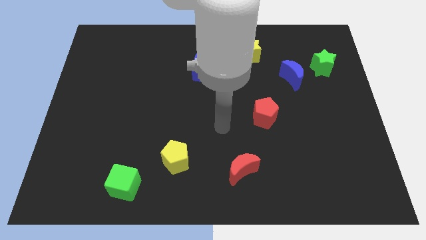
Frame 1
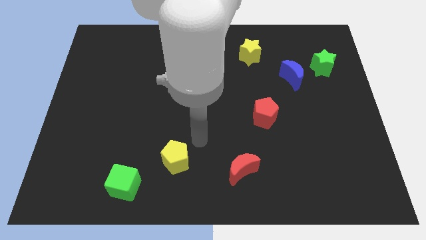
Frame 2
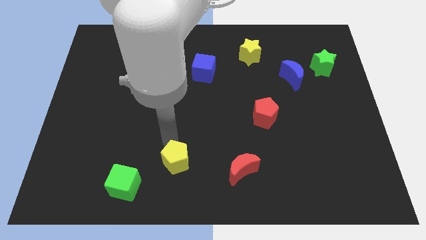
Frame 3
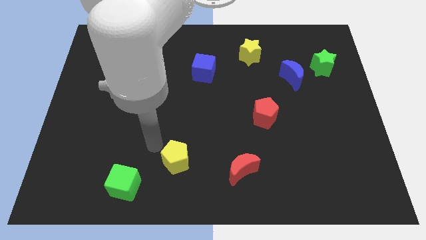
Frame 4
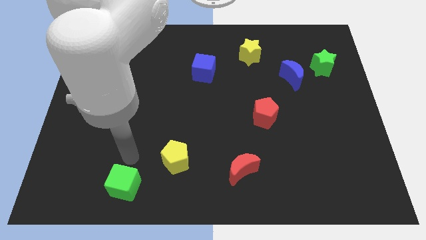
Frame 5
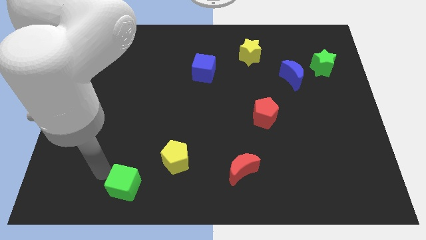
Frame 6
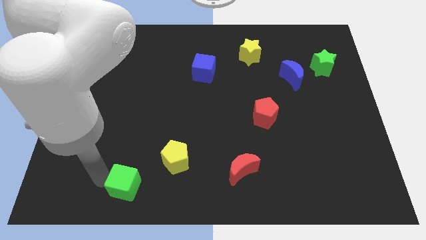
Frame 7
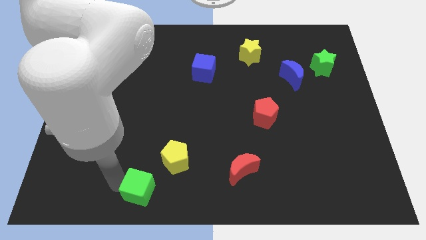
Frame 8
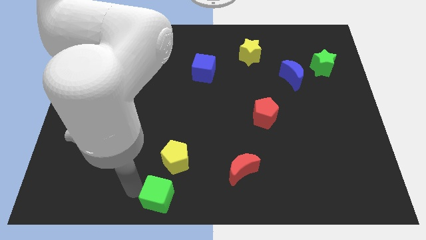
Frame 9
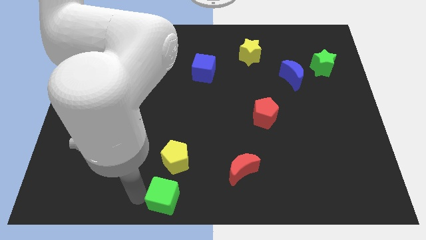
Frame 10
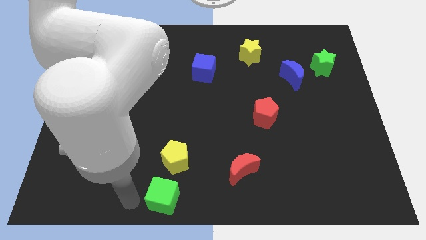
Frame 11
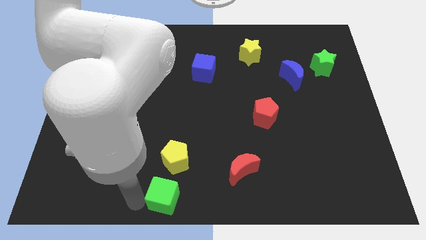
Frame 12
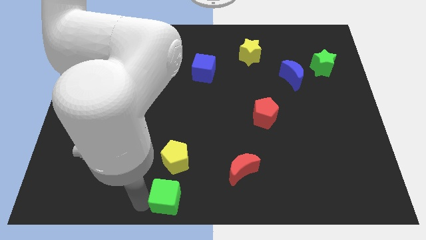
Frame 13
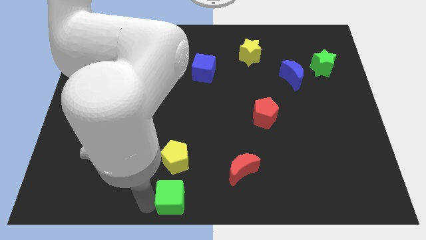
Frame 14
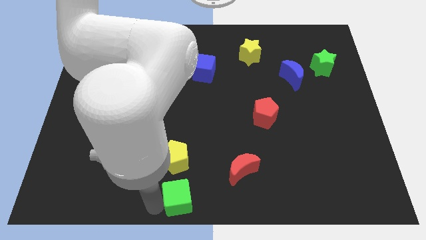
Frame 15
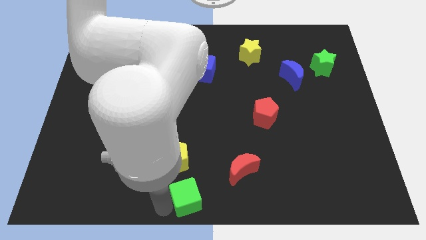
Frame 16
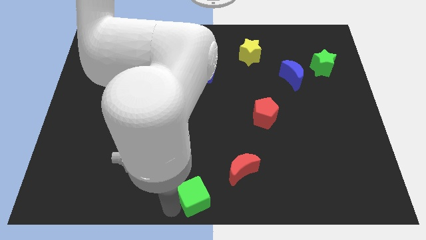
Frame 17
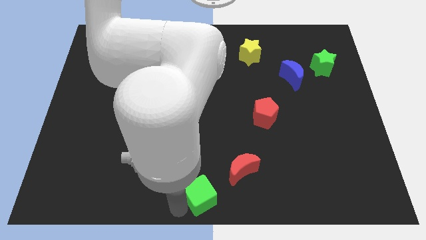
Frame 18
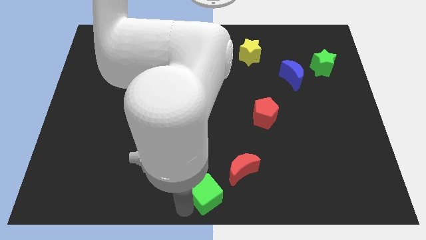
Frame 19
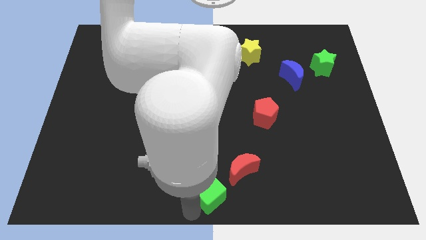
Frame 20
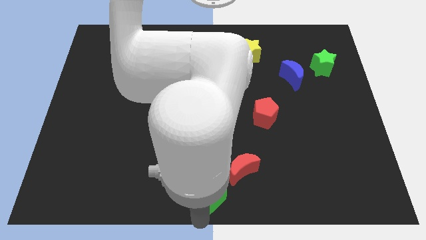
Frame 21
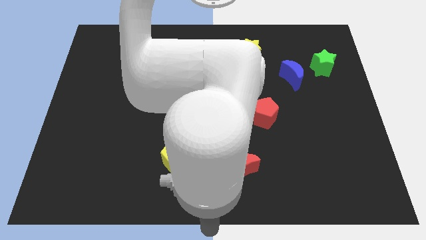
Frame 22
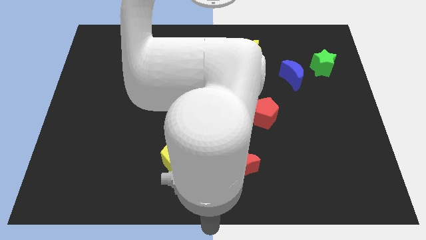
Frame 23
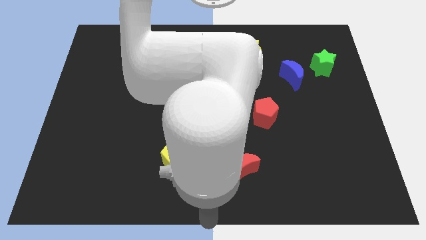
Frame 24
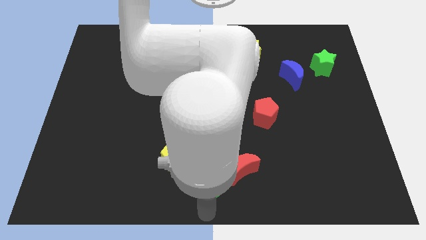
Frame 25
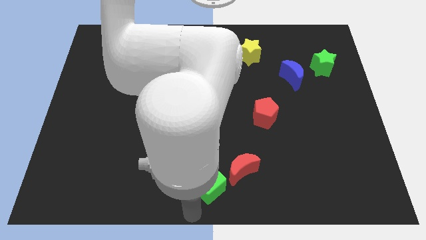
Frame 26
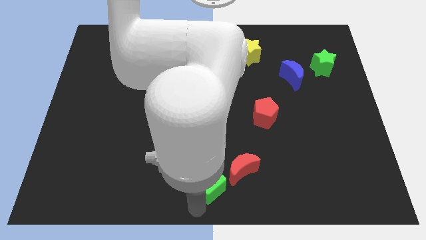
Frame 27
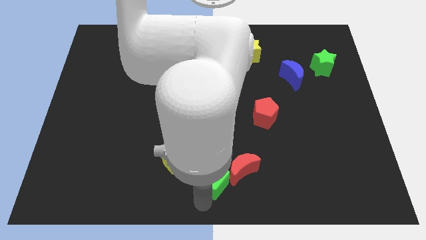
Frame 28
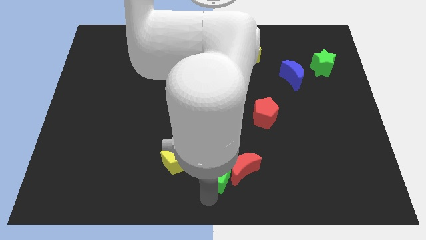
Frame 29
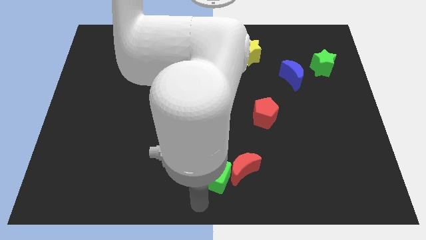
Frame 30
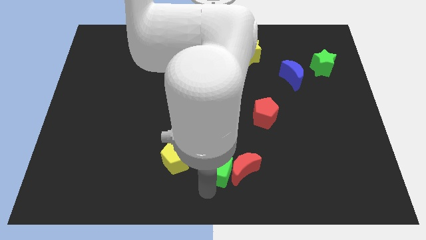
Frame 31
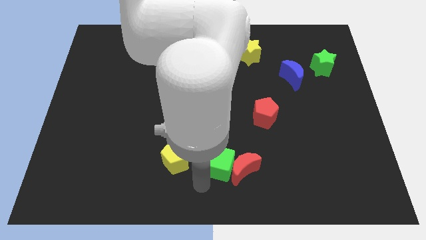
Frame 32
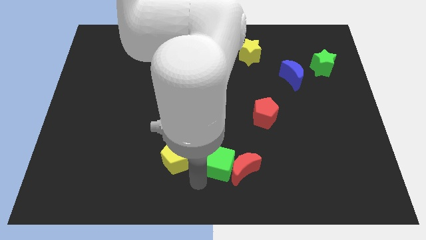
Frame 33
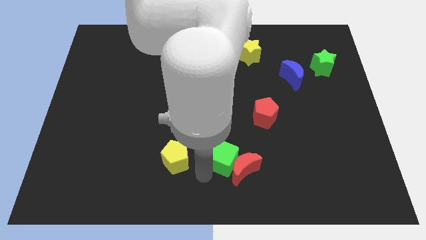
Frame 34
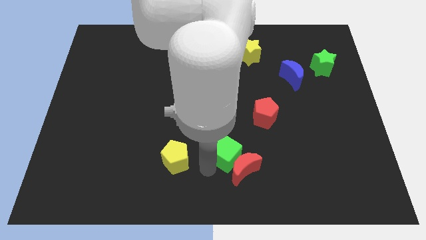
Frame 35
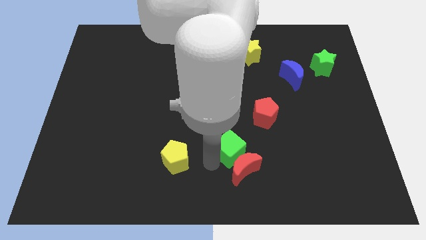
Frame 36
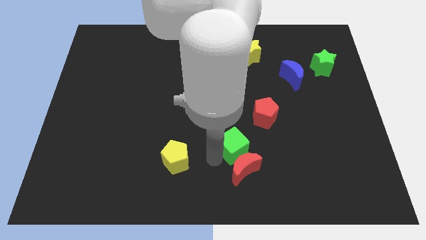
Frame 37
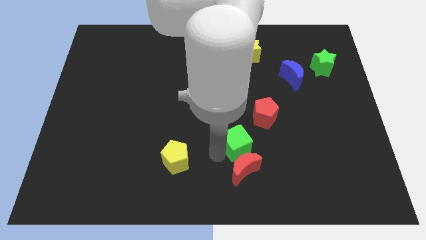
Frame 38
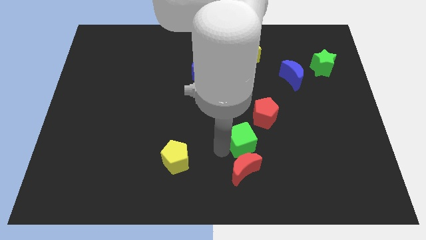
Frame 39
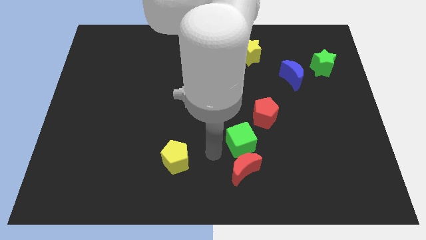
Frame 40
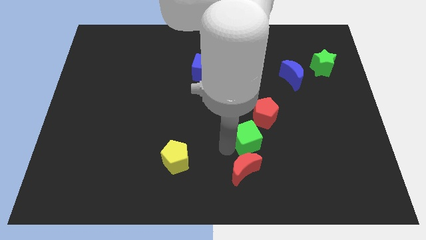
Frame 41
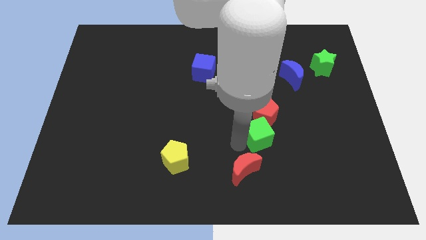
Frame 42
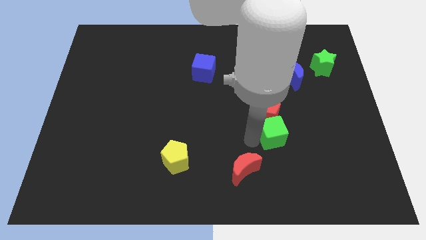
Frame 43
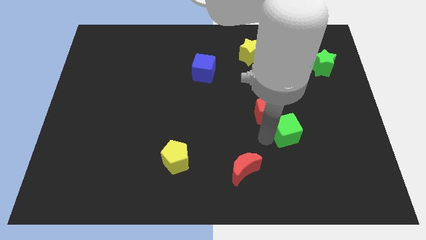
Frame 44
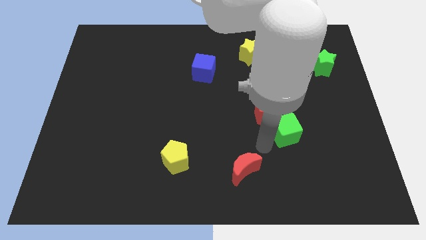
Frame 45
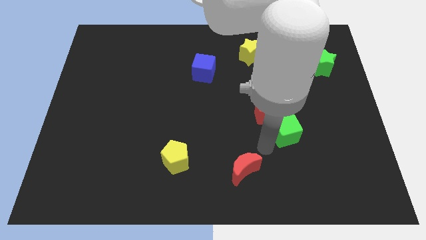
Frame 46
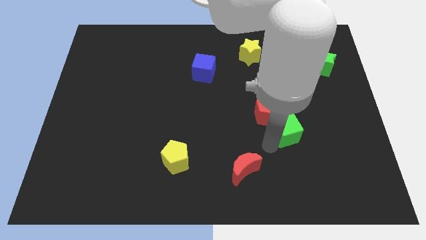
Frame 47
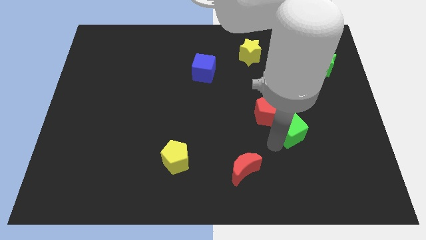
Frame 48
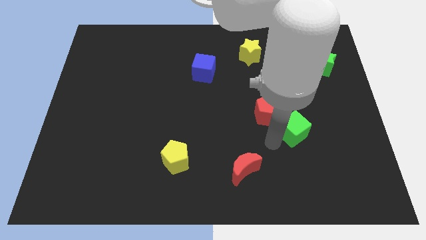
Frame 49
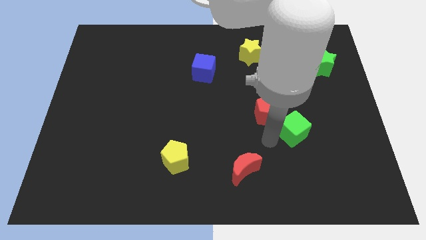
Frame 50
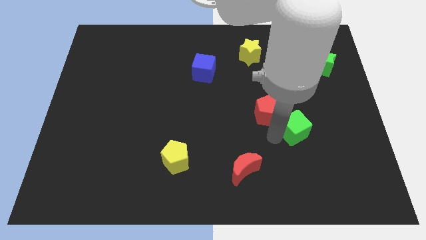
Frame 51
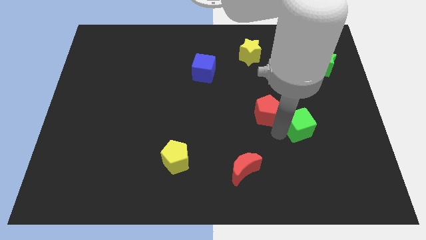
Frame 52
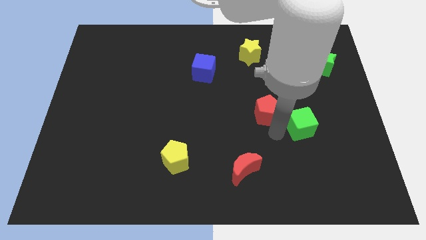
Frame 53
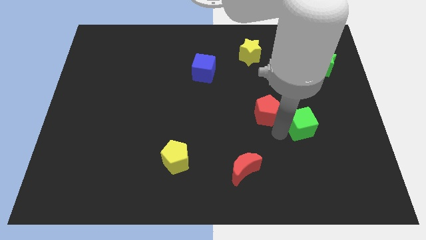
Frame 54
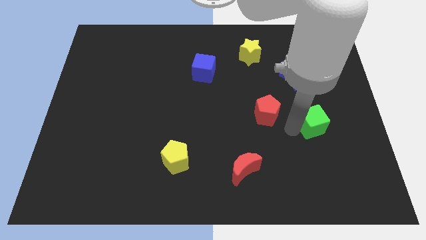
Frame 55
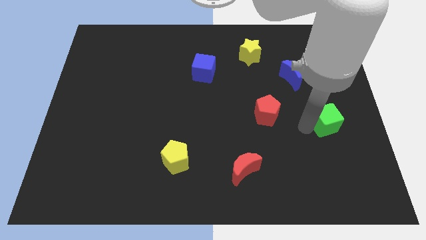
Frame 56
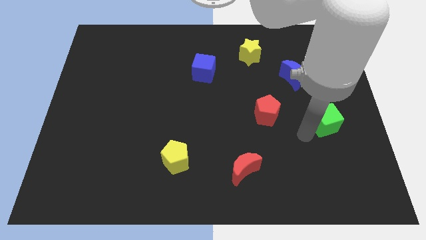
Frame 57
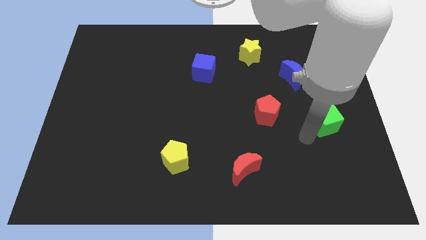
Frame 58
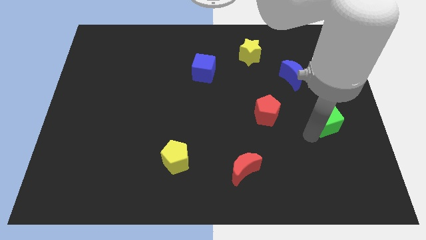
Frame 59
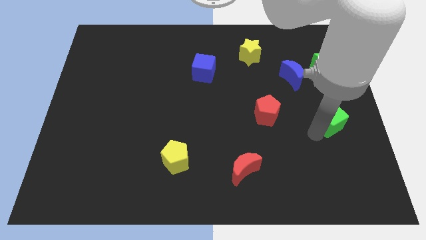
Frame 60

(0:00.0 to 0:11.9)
push the green cube to the right side

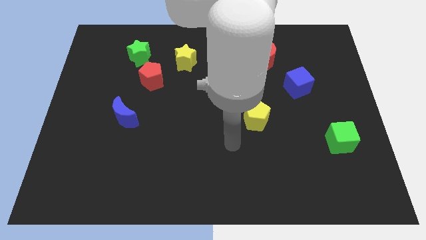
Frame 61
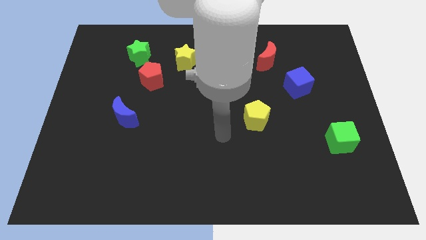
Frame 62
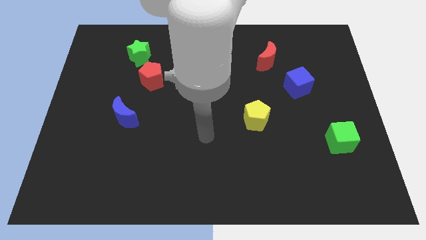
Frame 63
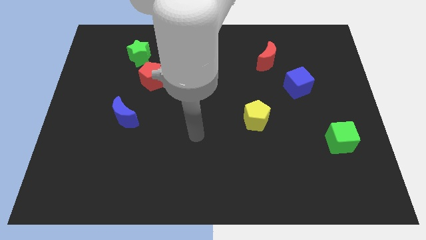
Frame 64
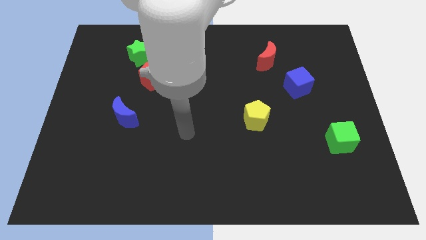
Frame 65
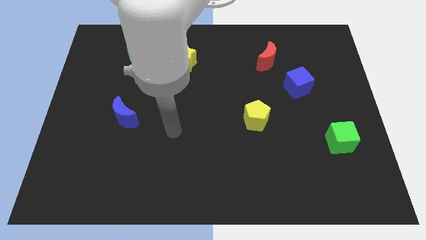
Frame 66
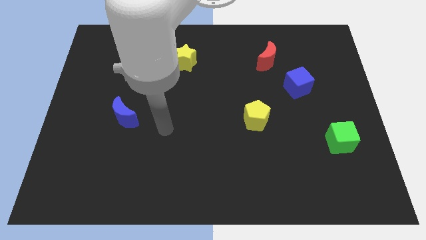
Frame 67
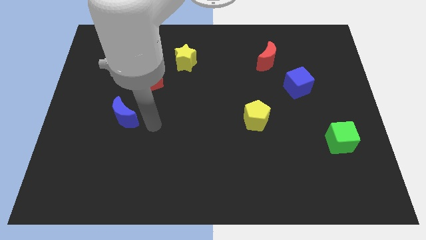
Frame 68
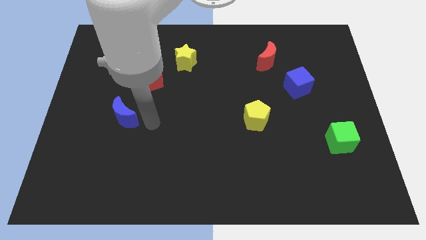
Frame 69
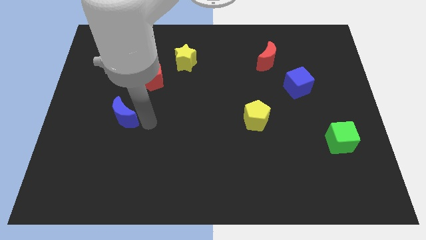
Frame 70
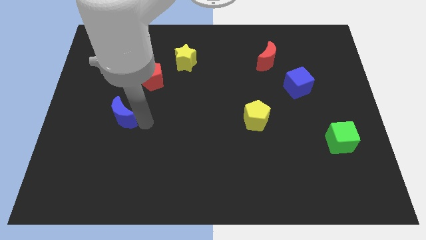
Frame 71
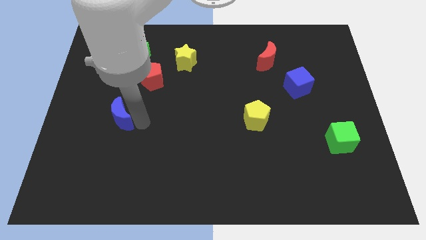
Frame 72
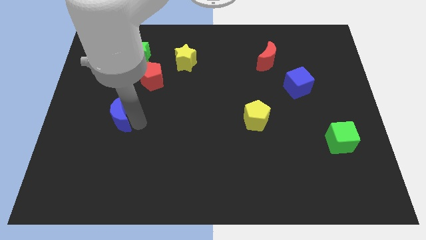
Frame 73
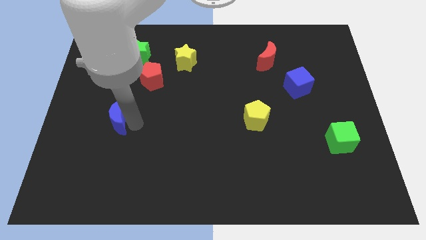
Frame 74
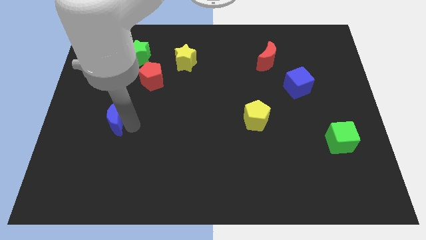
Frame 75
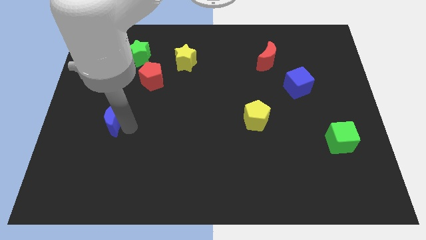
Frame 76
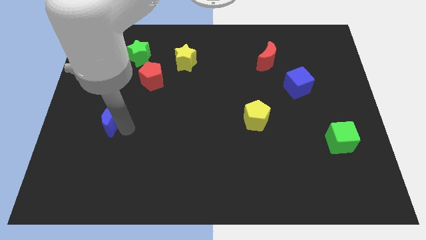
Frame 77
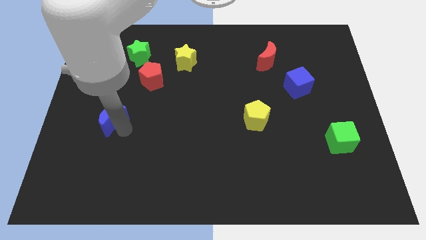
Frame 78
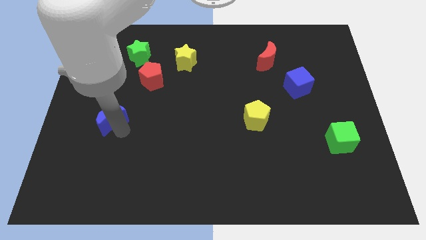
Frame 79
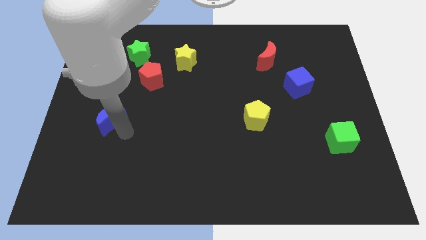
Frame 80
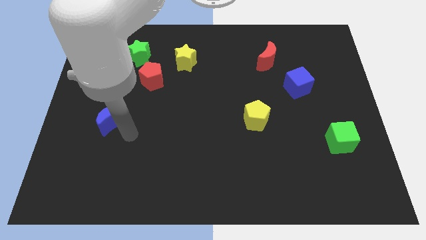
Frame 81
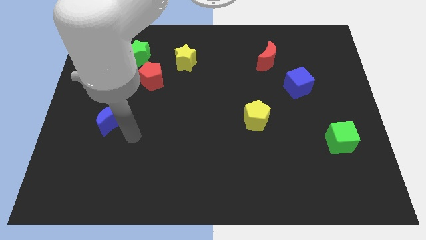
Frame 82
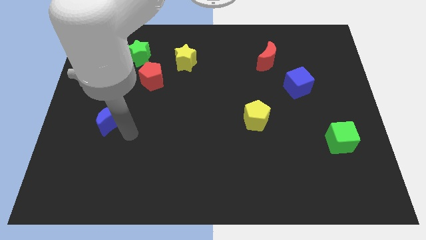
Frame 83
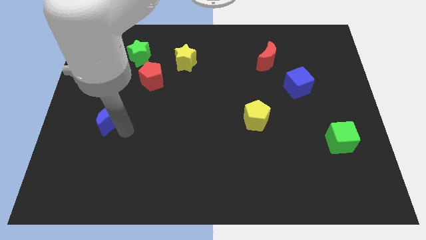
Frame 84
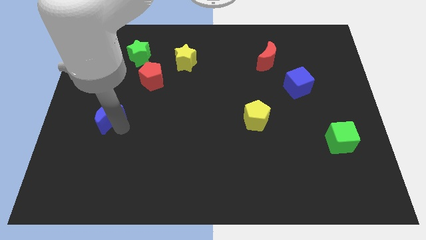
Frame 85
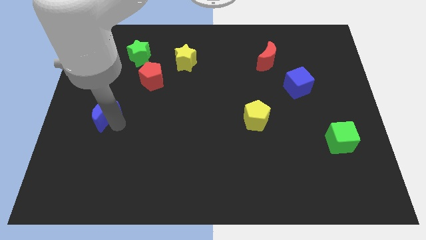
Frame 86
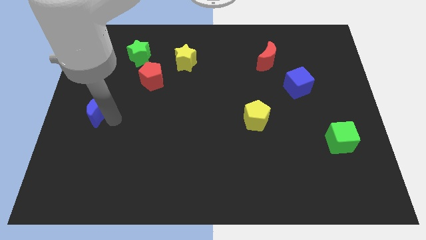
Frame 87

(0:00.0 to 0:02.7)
slide the blue moon to the center left
